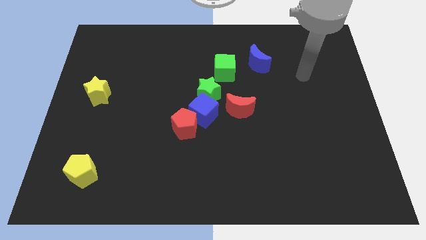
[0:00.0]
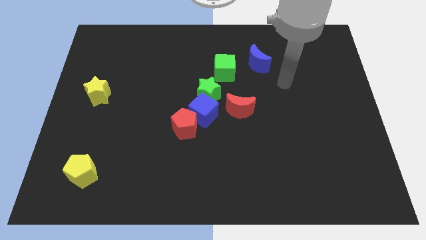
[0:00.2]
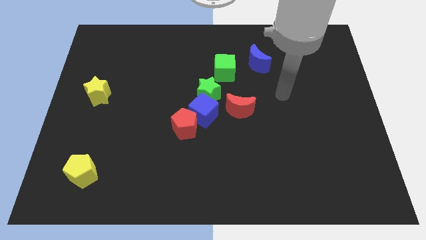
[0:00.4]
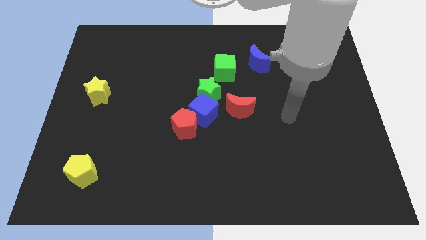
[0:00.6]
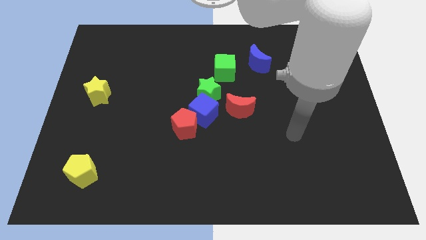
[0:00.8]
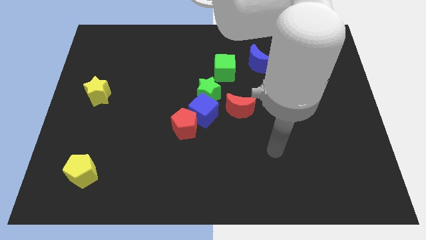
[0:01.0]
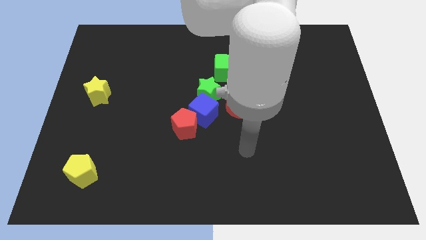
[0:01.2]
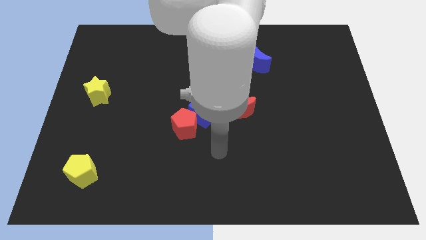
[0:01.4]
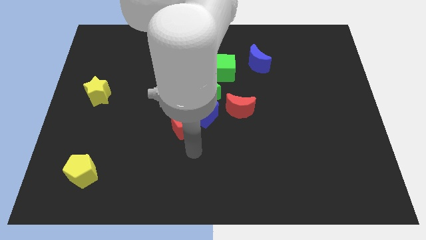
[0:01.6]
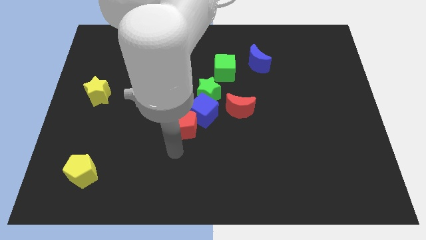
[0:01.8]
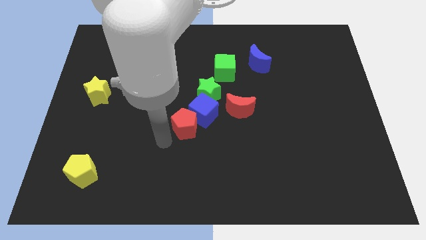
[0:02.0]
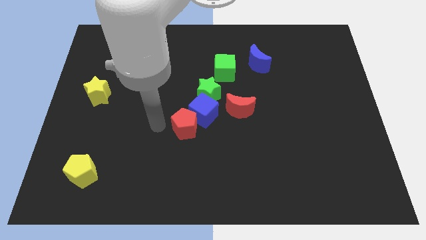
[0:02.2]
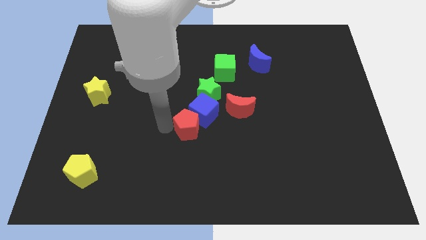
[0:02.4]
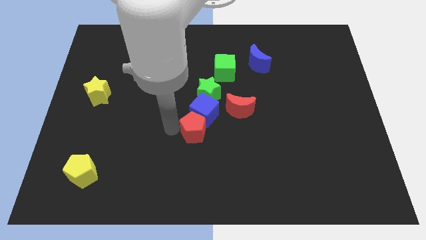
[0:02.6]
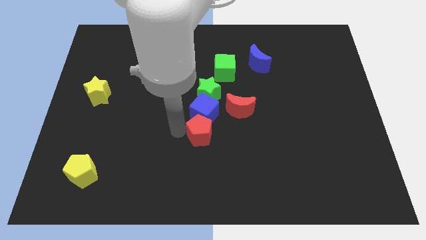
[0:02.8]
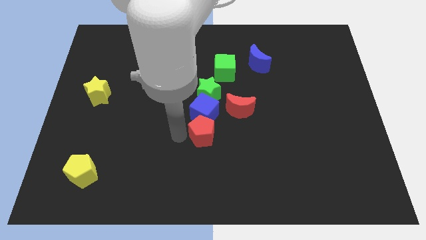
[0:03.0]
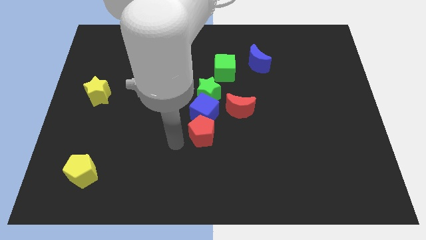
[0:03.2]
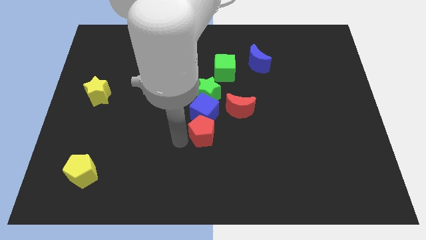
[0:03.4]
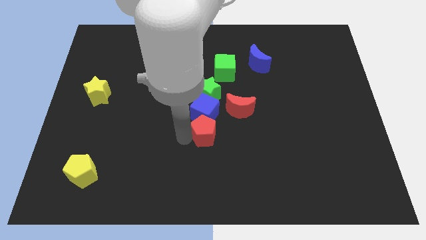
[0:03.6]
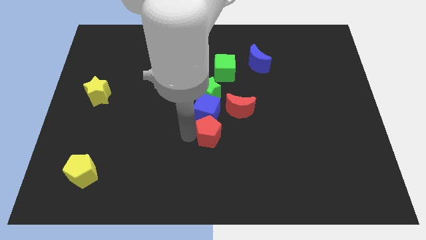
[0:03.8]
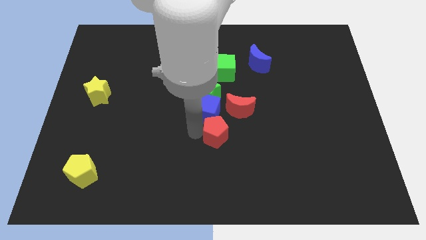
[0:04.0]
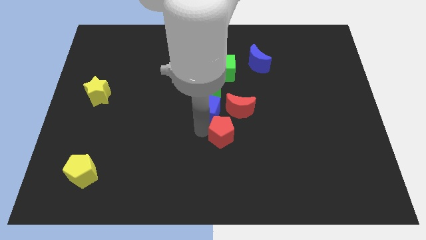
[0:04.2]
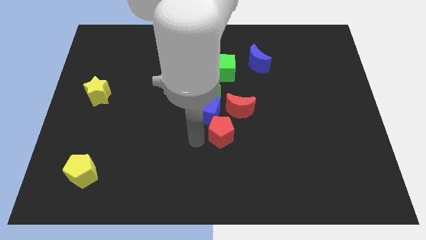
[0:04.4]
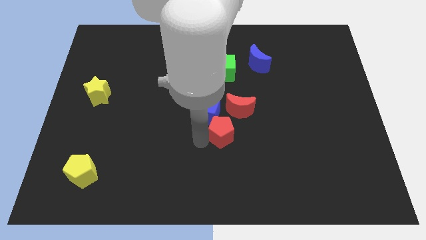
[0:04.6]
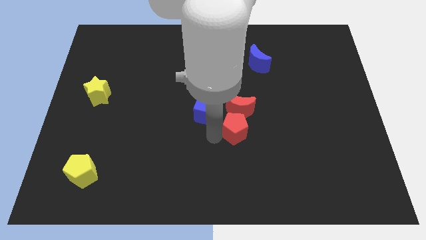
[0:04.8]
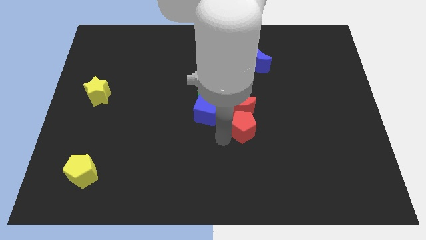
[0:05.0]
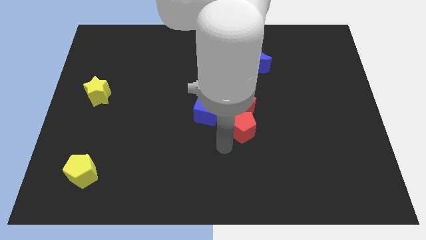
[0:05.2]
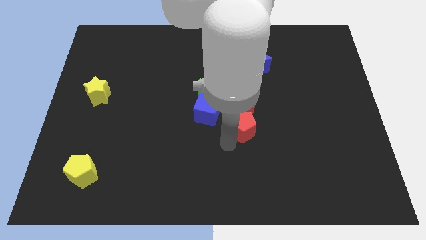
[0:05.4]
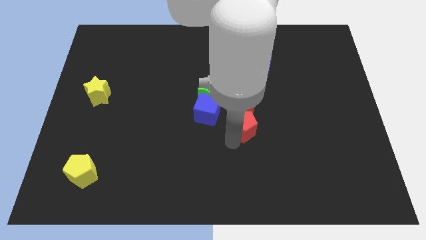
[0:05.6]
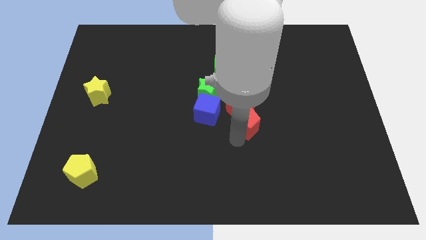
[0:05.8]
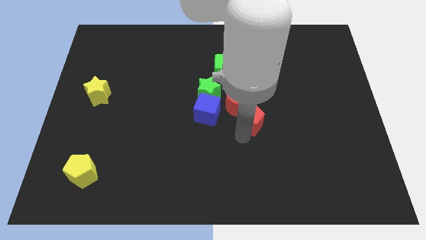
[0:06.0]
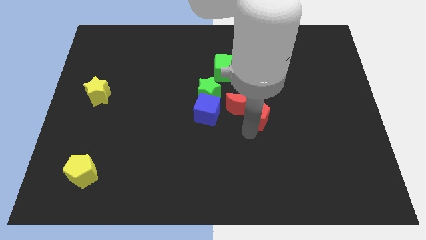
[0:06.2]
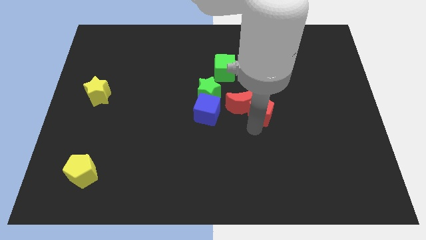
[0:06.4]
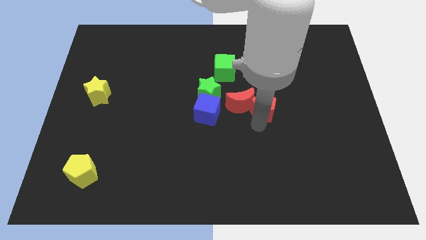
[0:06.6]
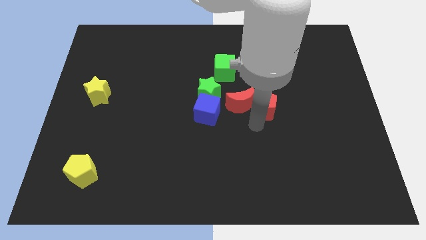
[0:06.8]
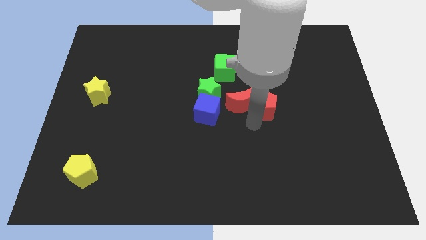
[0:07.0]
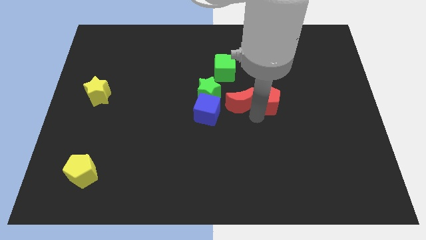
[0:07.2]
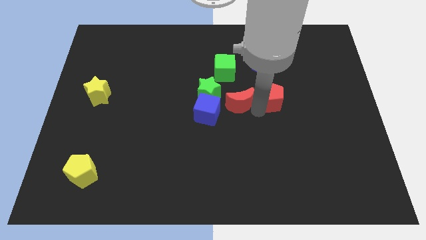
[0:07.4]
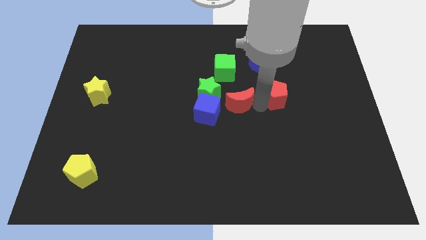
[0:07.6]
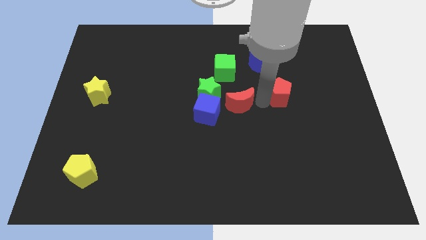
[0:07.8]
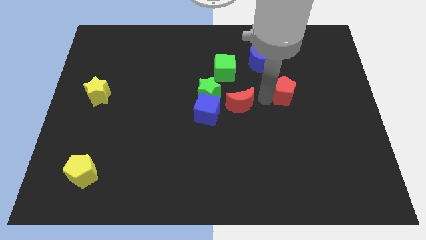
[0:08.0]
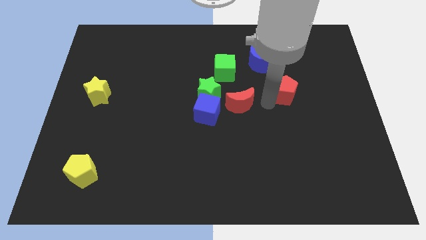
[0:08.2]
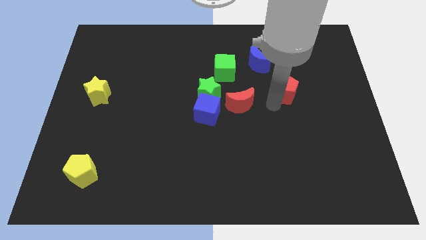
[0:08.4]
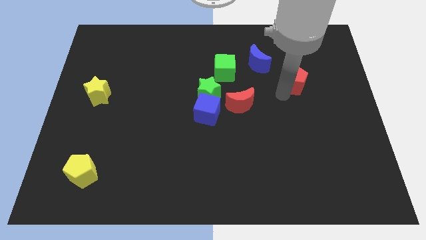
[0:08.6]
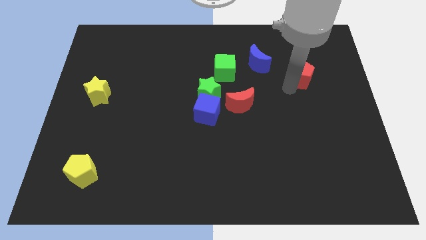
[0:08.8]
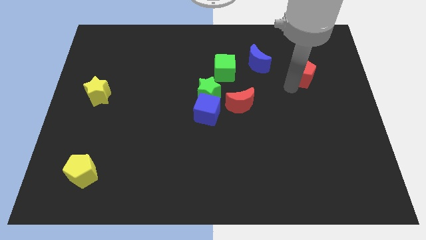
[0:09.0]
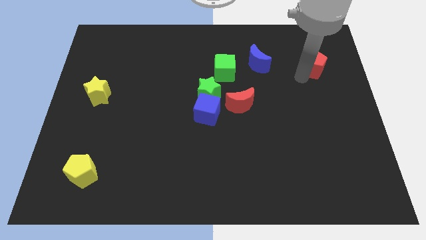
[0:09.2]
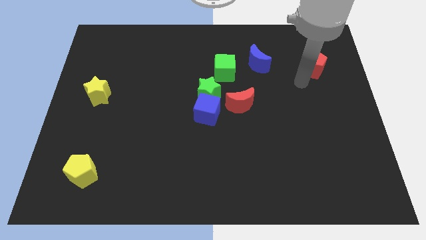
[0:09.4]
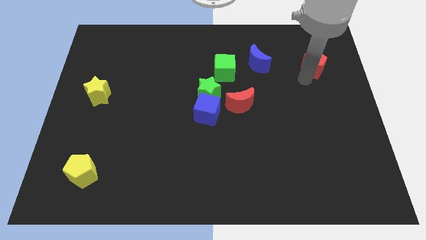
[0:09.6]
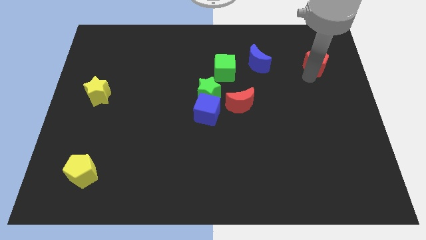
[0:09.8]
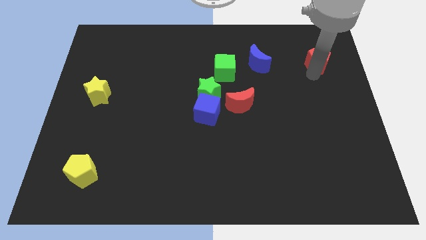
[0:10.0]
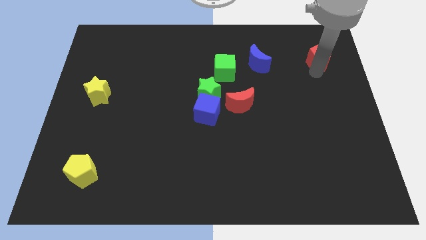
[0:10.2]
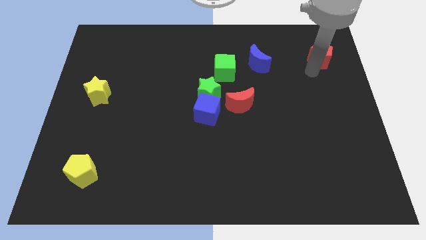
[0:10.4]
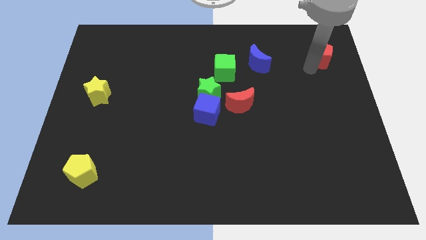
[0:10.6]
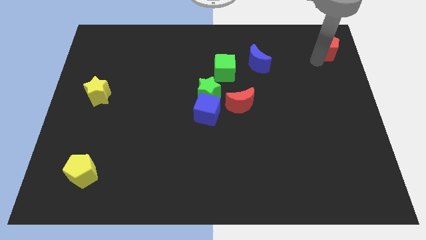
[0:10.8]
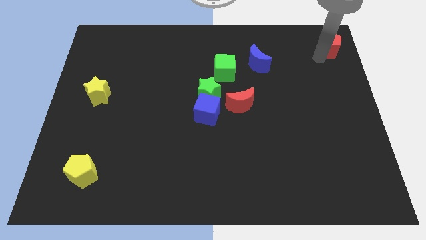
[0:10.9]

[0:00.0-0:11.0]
move the red pentagon to the top right of the board

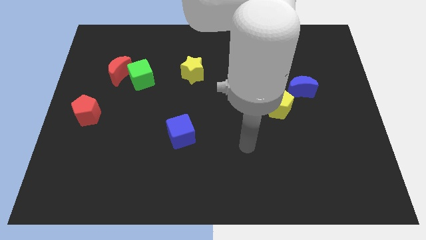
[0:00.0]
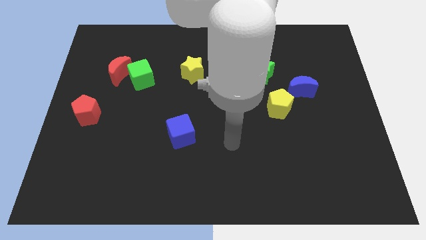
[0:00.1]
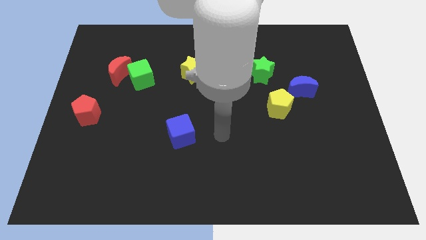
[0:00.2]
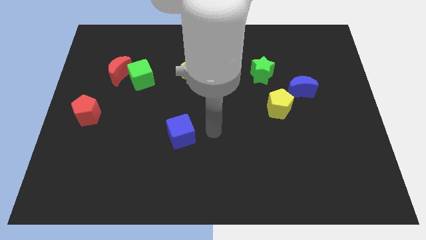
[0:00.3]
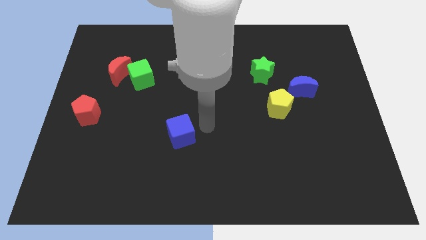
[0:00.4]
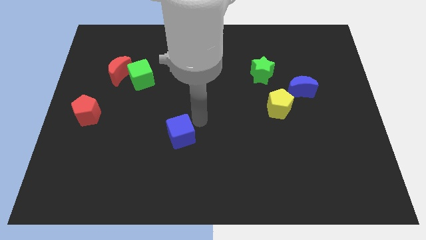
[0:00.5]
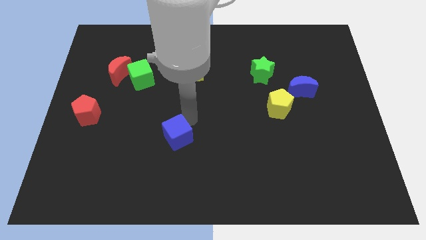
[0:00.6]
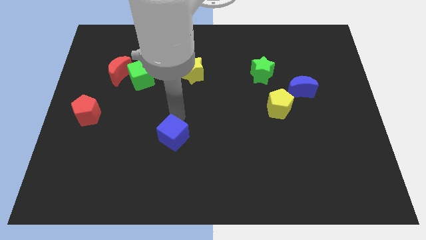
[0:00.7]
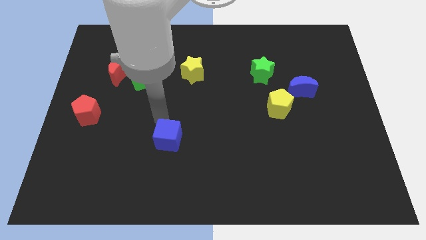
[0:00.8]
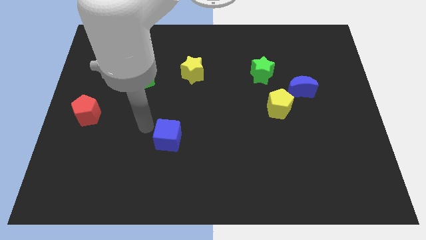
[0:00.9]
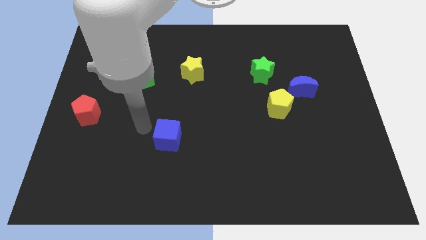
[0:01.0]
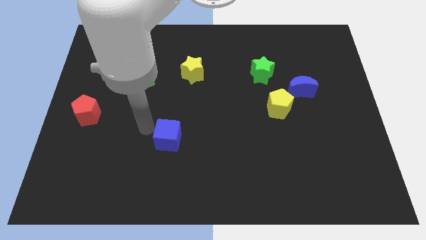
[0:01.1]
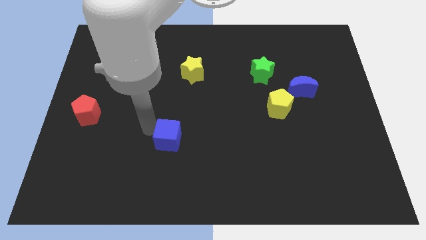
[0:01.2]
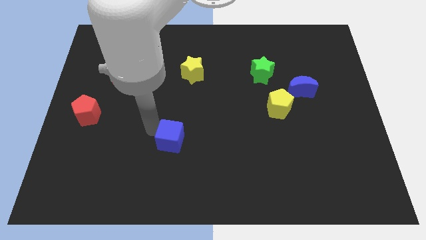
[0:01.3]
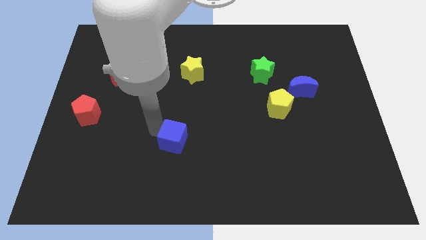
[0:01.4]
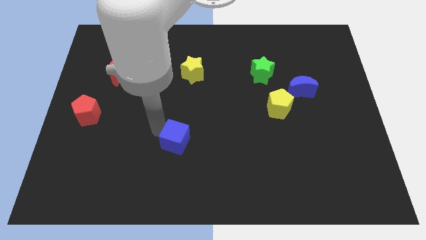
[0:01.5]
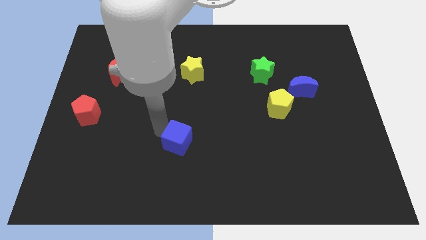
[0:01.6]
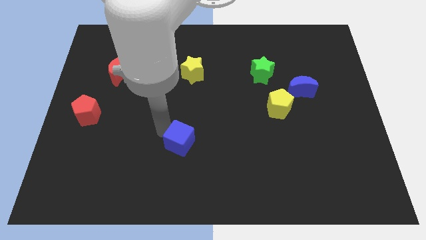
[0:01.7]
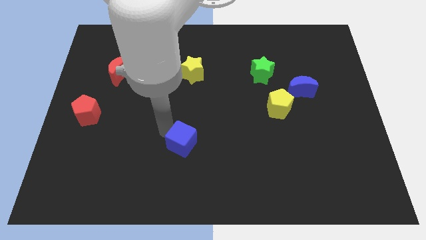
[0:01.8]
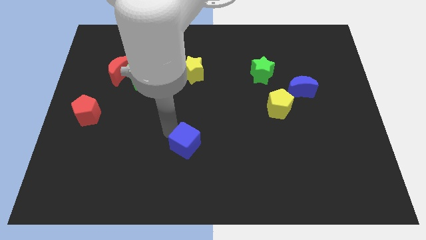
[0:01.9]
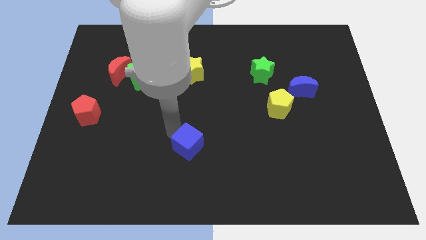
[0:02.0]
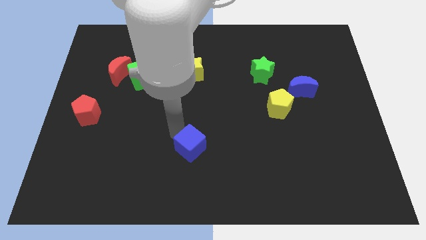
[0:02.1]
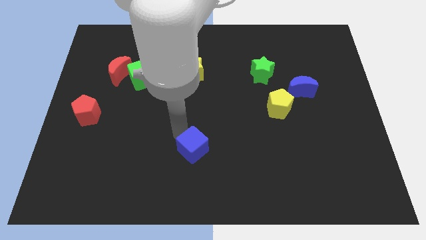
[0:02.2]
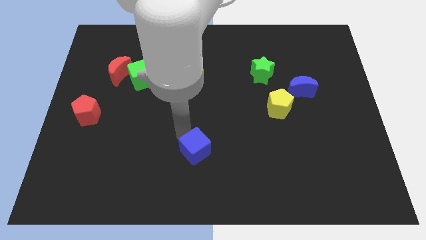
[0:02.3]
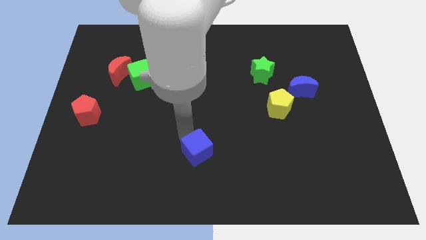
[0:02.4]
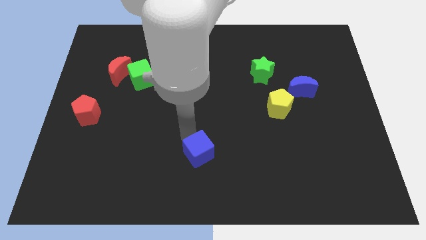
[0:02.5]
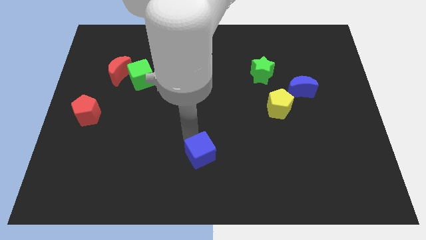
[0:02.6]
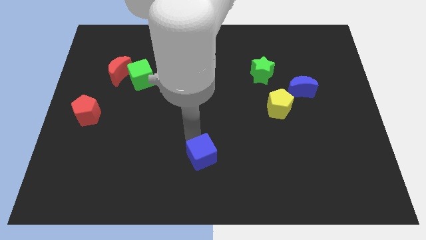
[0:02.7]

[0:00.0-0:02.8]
put the blue cube to the bottom
